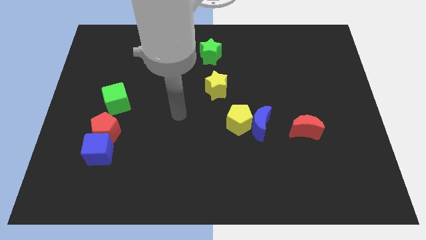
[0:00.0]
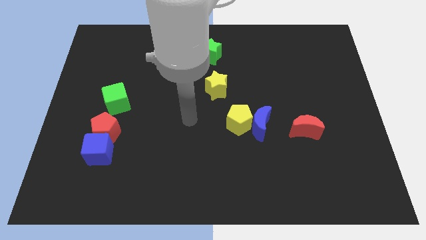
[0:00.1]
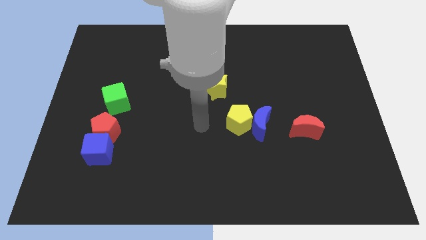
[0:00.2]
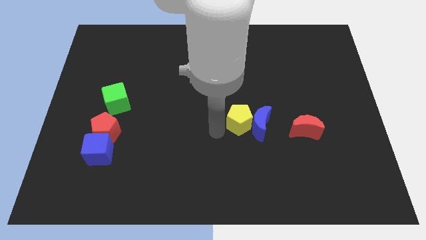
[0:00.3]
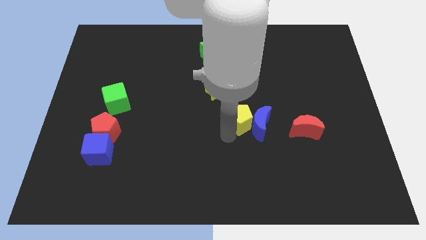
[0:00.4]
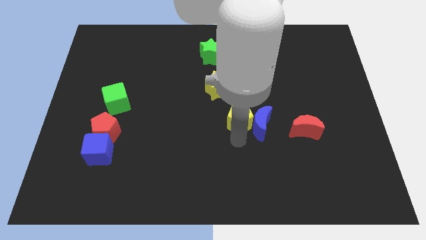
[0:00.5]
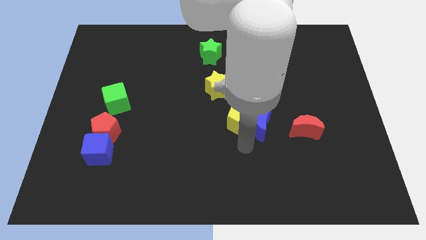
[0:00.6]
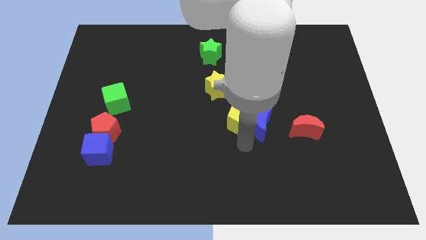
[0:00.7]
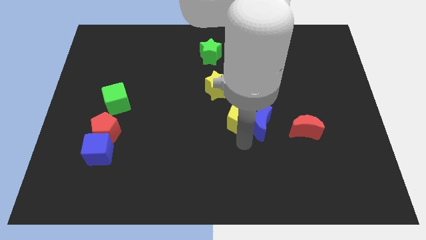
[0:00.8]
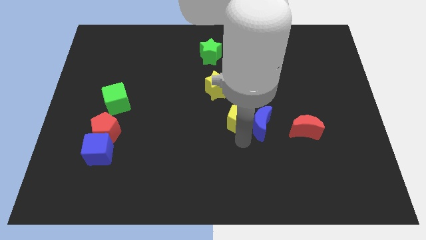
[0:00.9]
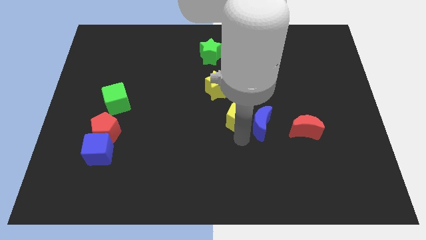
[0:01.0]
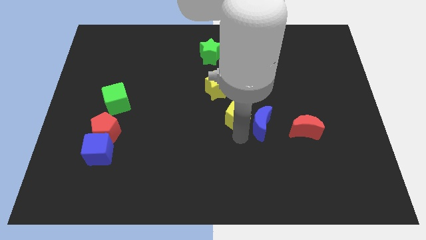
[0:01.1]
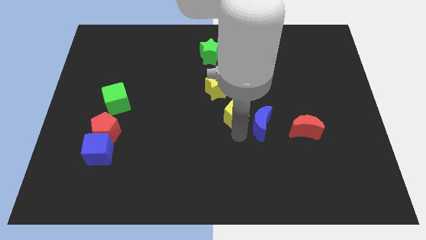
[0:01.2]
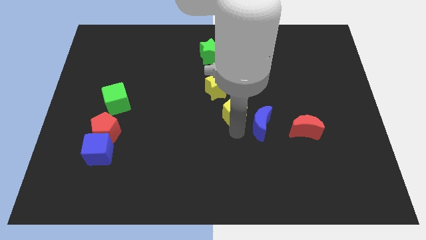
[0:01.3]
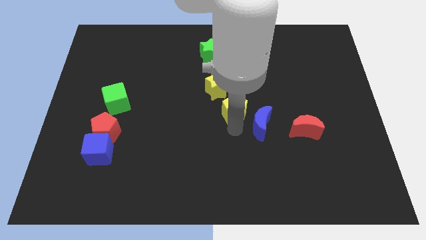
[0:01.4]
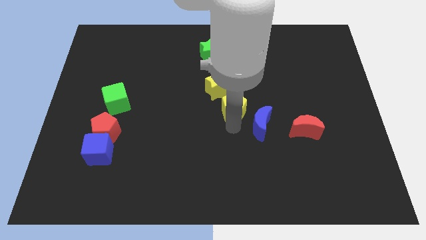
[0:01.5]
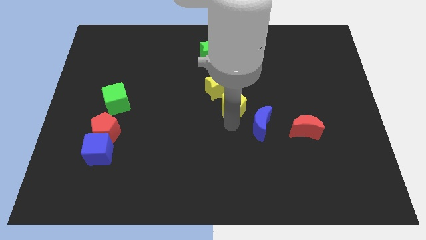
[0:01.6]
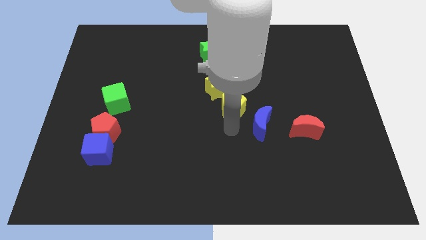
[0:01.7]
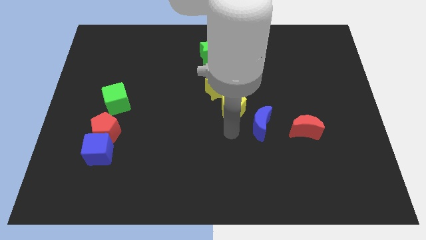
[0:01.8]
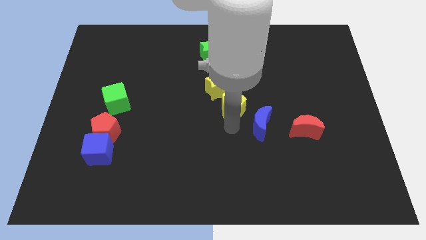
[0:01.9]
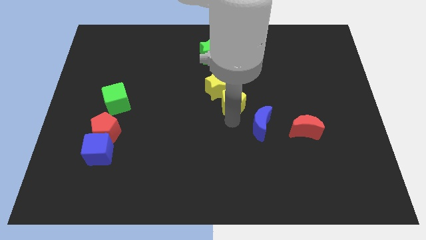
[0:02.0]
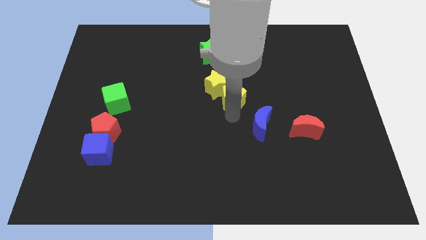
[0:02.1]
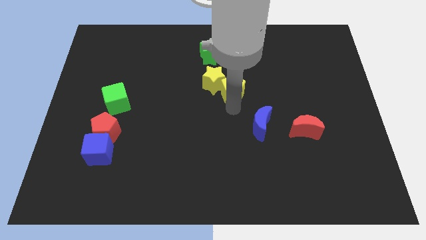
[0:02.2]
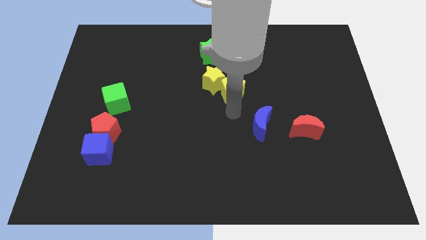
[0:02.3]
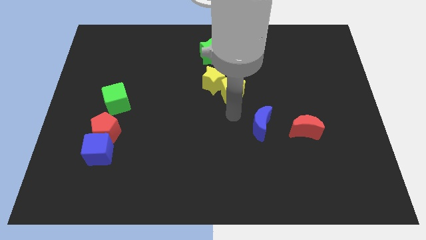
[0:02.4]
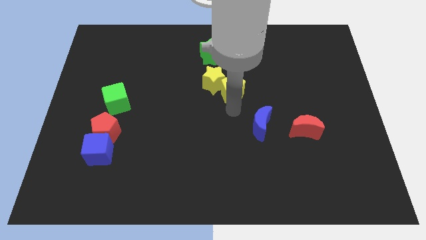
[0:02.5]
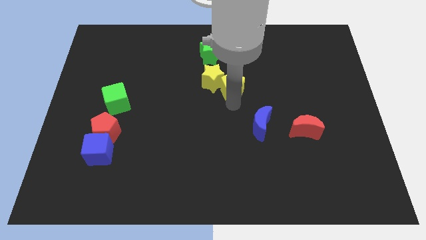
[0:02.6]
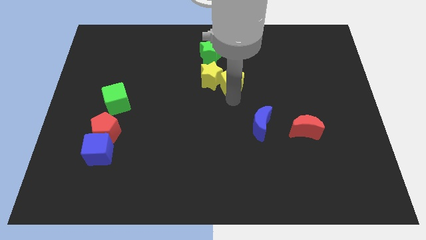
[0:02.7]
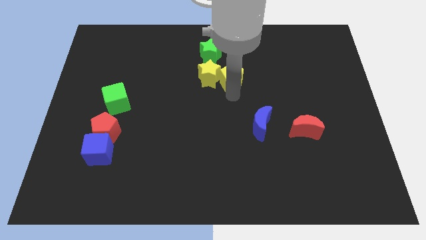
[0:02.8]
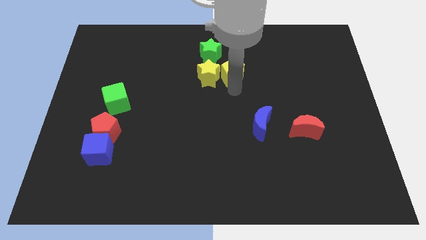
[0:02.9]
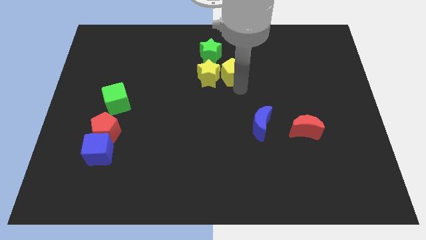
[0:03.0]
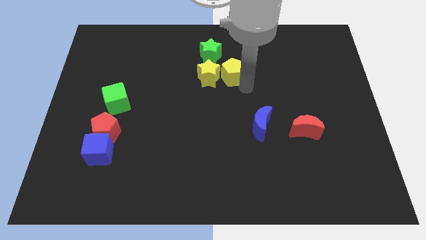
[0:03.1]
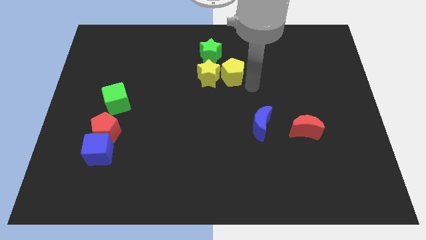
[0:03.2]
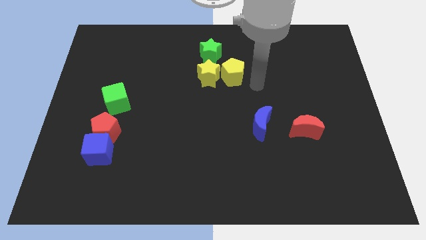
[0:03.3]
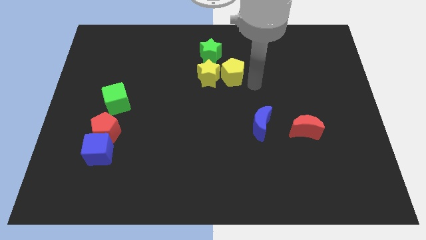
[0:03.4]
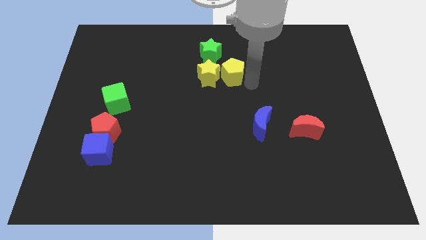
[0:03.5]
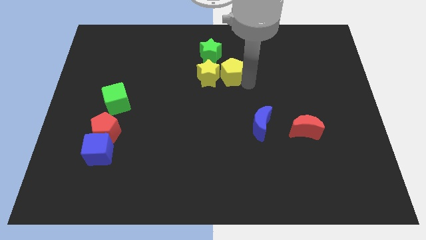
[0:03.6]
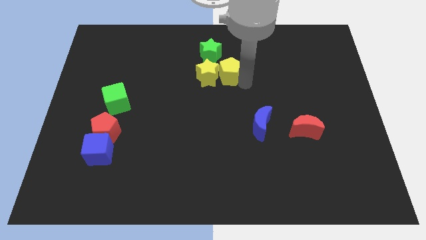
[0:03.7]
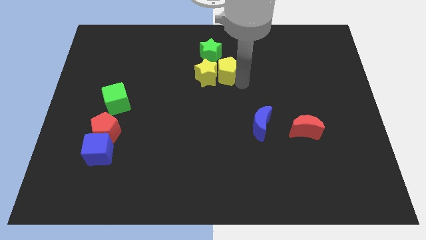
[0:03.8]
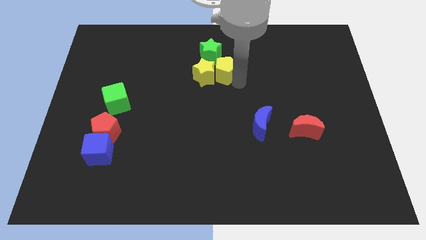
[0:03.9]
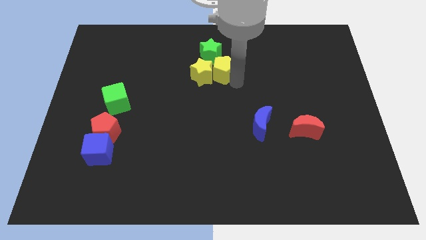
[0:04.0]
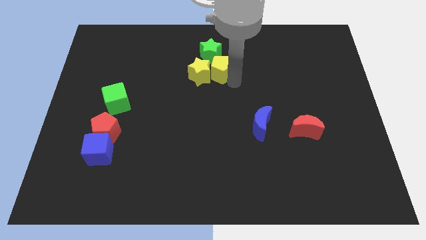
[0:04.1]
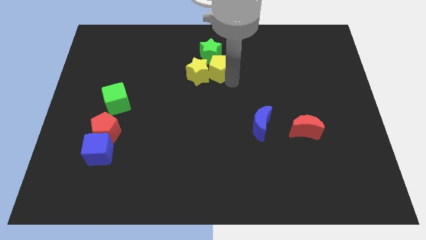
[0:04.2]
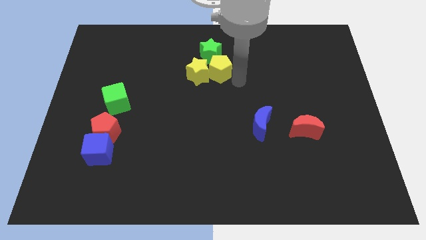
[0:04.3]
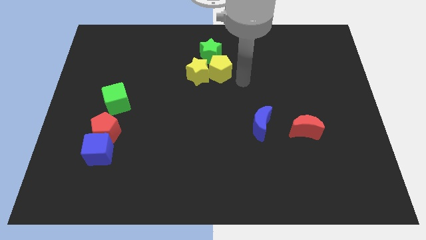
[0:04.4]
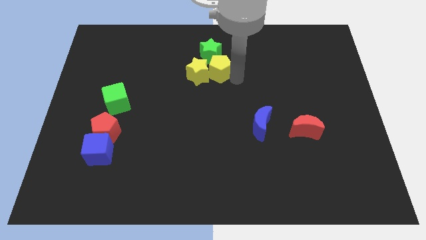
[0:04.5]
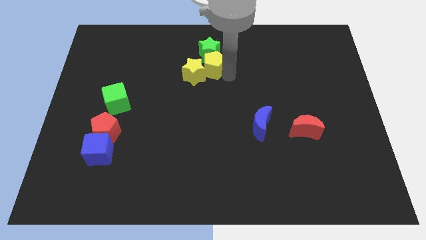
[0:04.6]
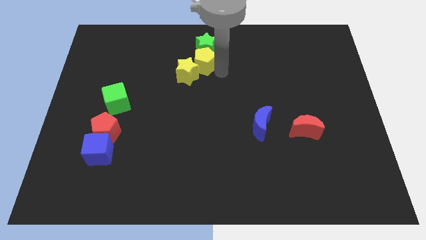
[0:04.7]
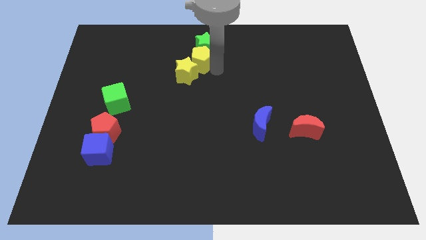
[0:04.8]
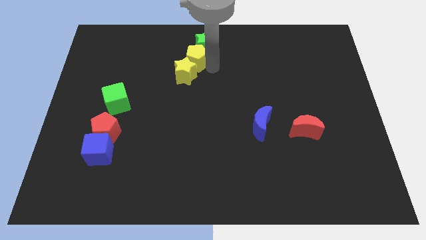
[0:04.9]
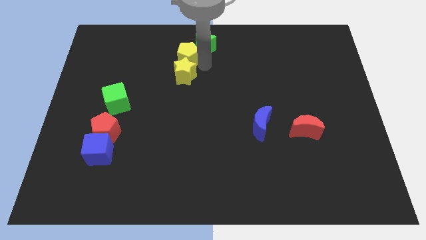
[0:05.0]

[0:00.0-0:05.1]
put the yellow pentagon left of the green star

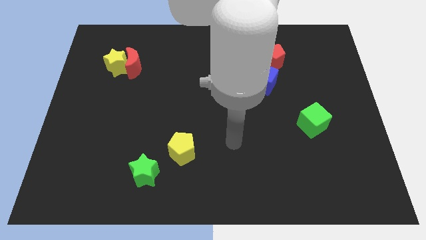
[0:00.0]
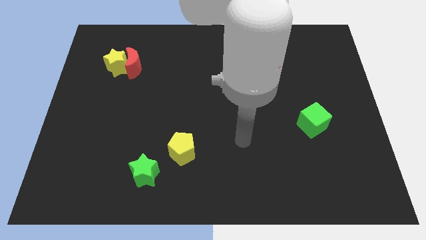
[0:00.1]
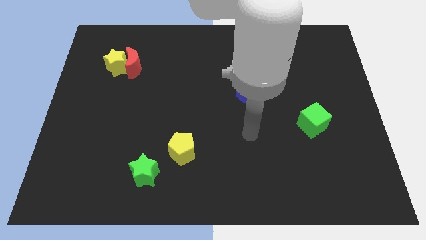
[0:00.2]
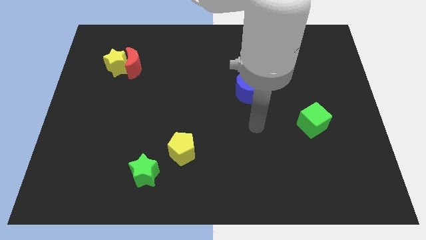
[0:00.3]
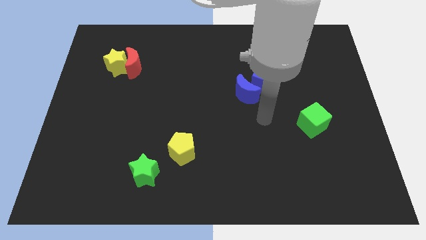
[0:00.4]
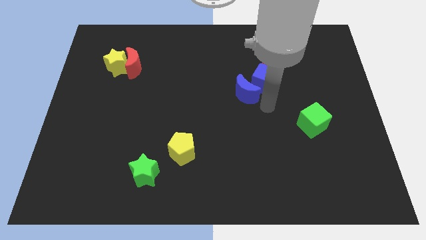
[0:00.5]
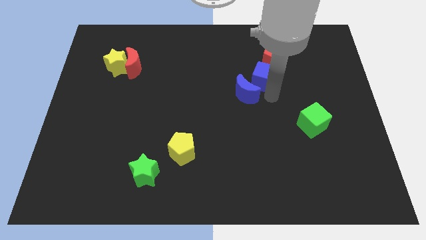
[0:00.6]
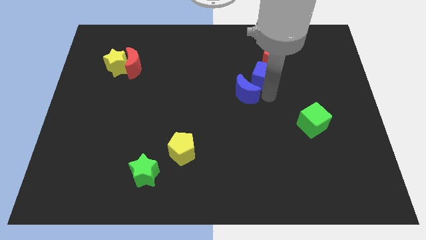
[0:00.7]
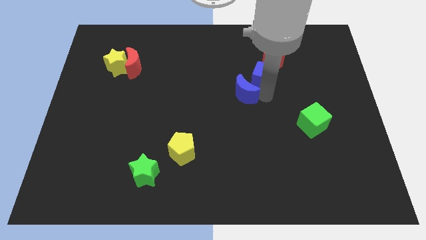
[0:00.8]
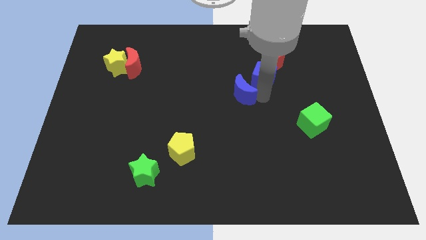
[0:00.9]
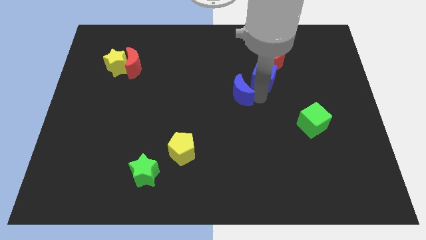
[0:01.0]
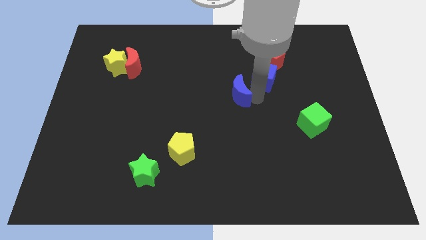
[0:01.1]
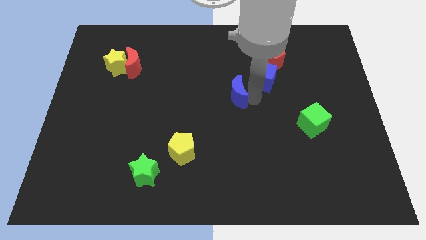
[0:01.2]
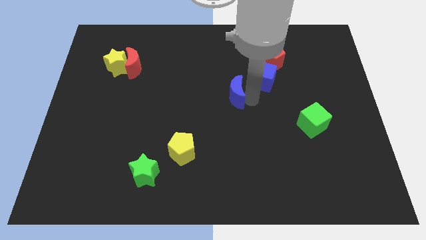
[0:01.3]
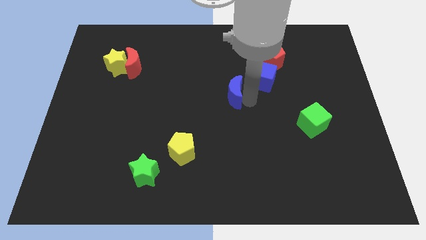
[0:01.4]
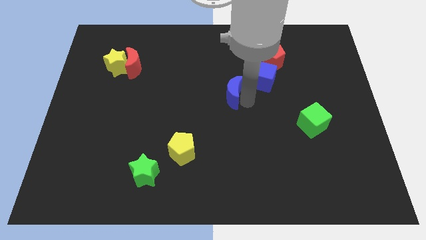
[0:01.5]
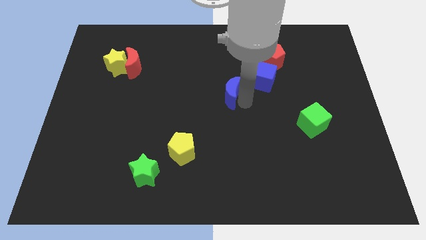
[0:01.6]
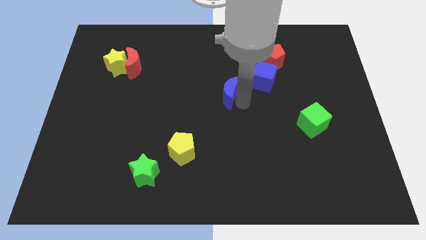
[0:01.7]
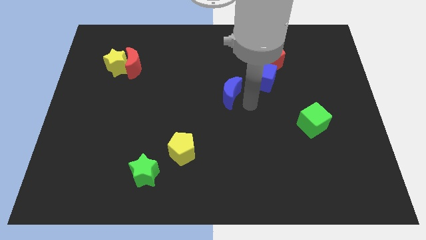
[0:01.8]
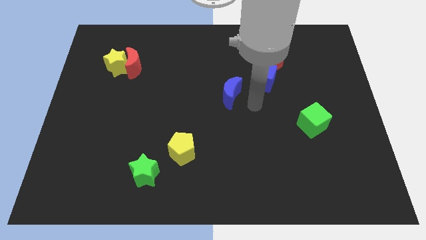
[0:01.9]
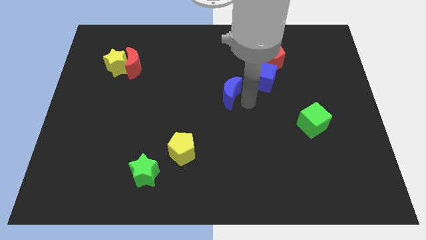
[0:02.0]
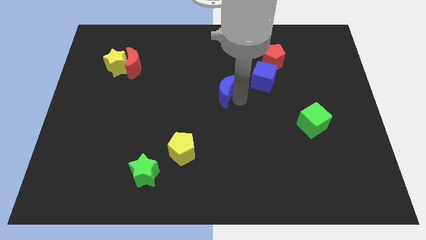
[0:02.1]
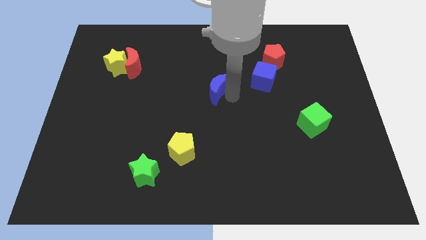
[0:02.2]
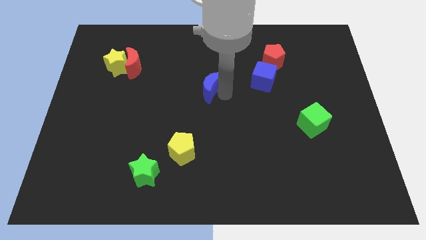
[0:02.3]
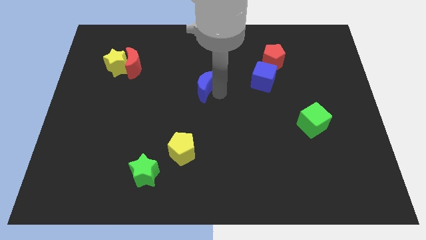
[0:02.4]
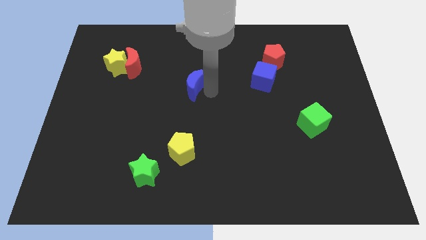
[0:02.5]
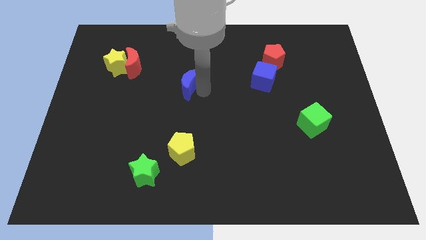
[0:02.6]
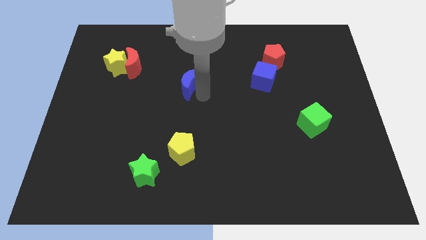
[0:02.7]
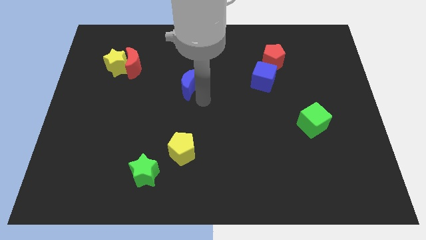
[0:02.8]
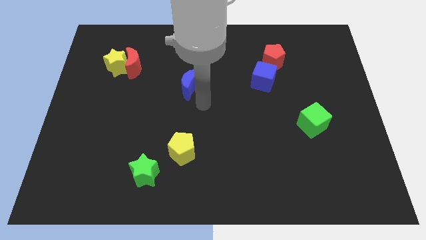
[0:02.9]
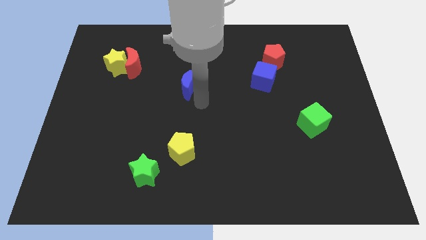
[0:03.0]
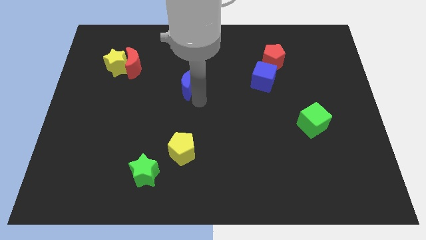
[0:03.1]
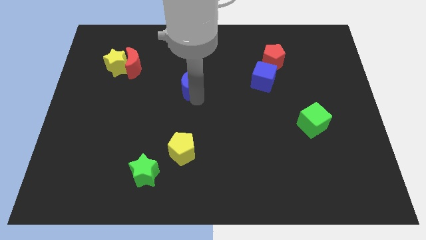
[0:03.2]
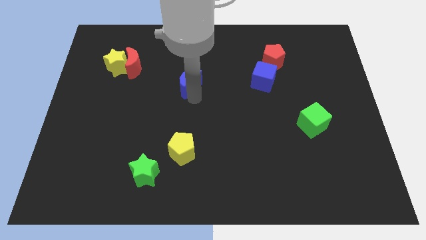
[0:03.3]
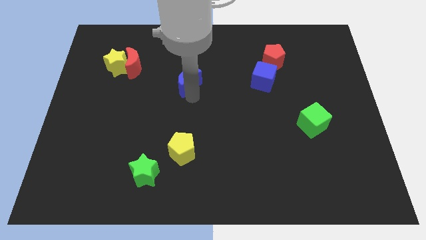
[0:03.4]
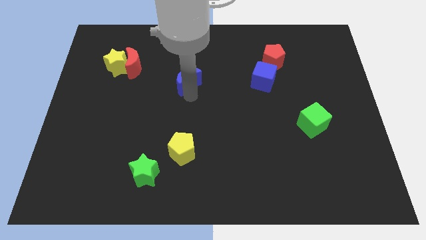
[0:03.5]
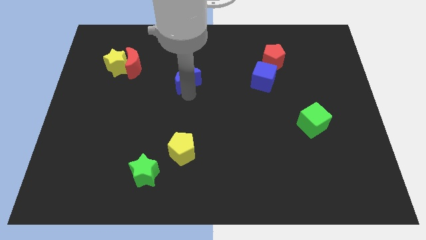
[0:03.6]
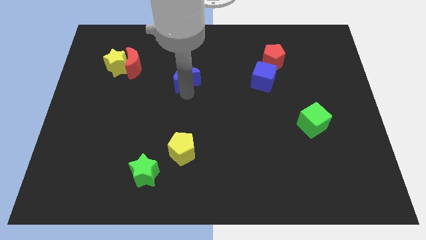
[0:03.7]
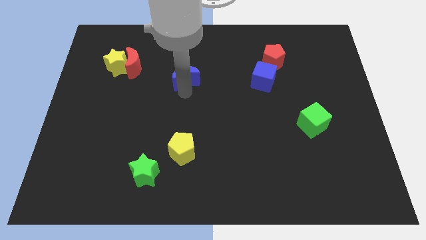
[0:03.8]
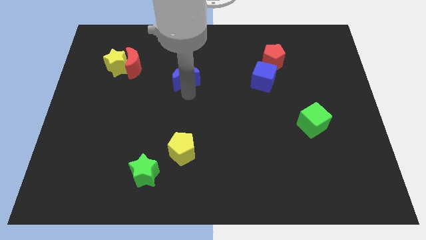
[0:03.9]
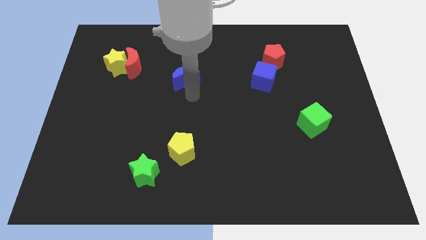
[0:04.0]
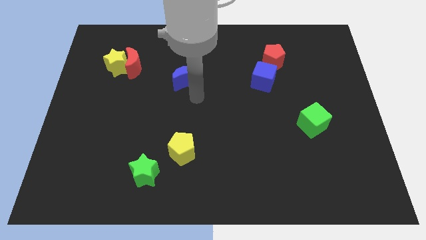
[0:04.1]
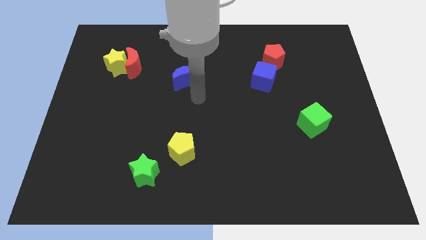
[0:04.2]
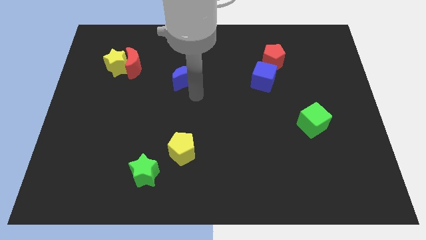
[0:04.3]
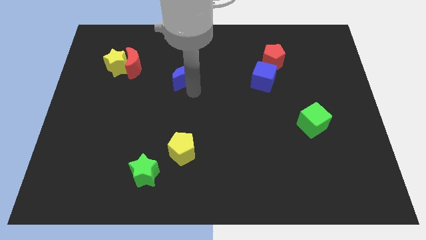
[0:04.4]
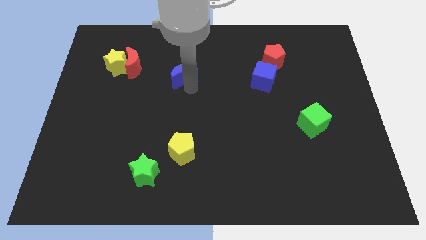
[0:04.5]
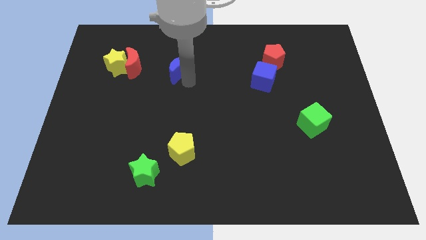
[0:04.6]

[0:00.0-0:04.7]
push the blue moon to the right of the yellow star
